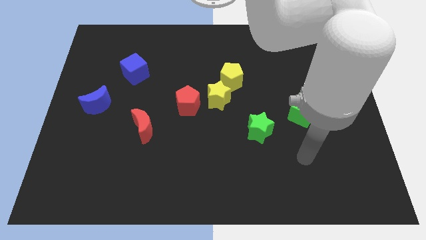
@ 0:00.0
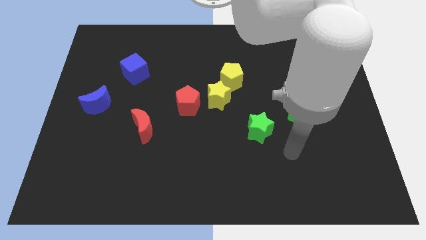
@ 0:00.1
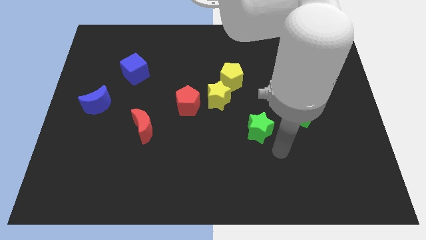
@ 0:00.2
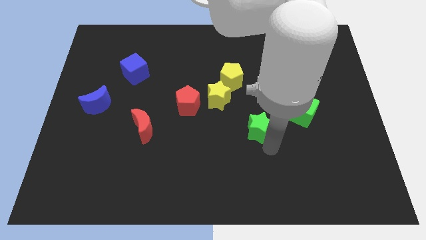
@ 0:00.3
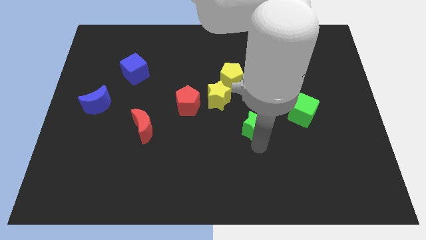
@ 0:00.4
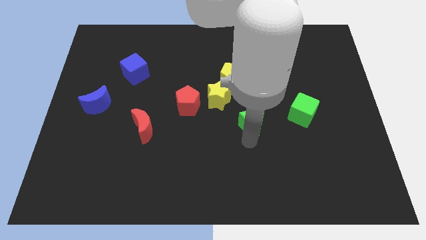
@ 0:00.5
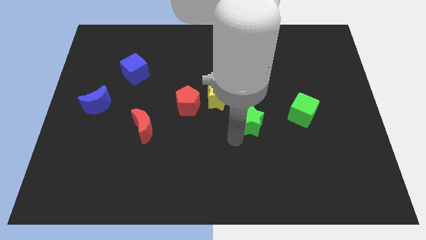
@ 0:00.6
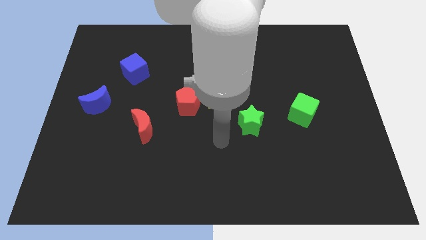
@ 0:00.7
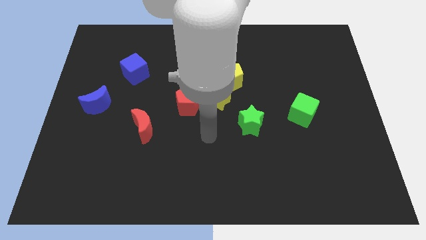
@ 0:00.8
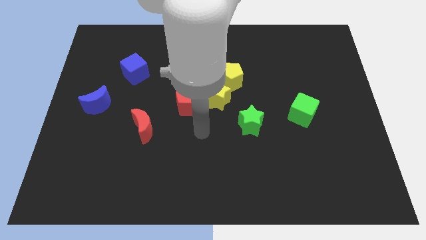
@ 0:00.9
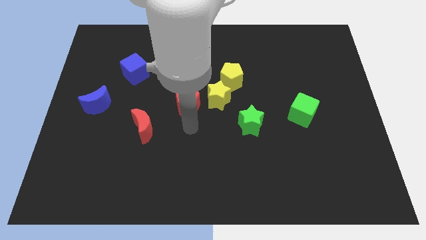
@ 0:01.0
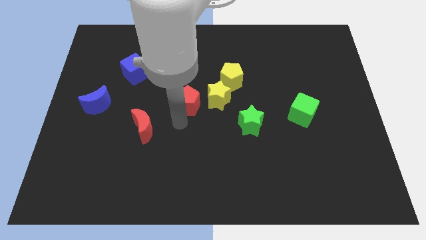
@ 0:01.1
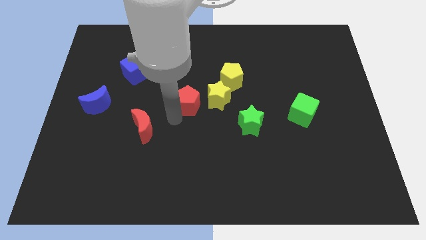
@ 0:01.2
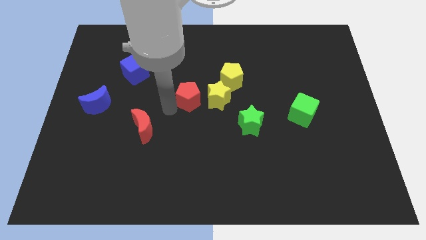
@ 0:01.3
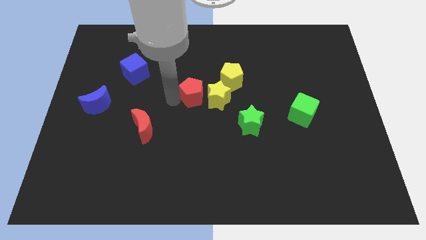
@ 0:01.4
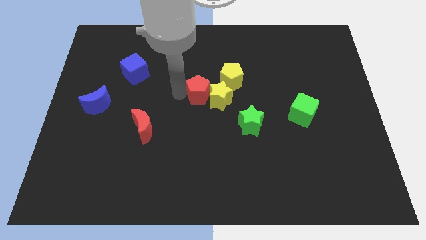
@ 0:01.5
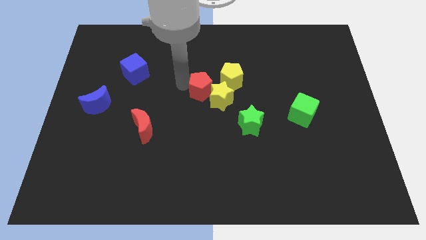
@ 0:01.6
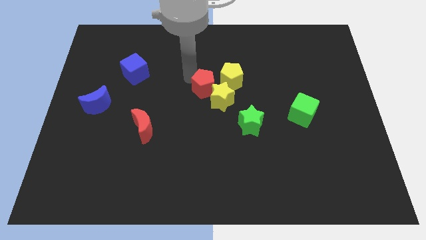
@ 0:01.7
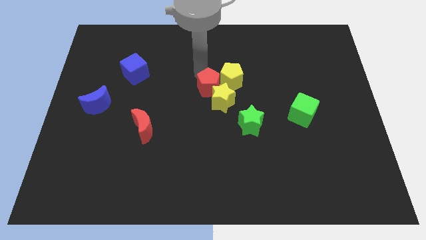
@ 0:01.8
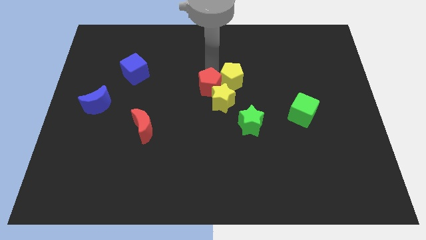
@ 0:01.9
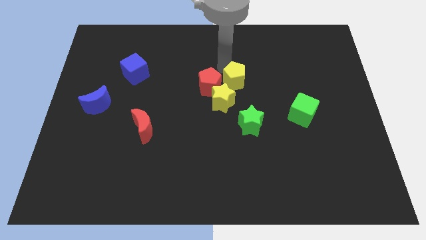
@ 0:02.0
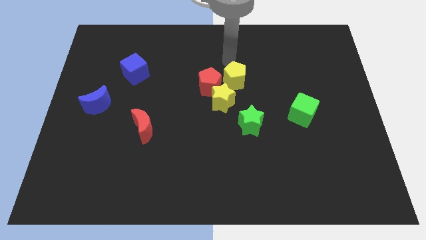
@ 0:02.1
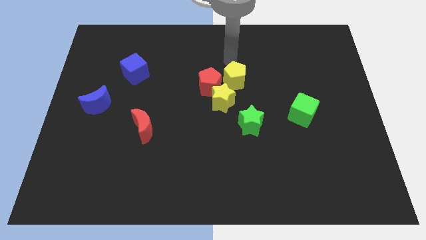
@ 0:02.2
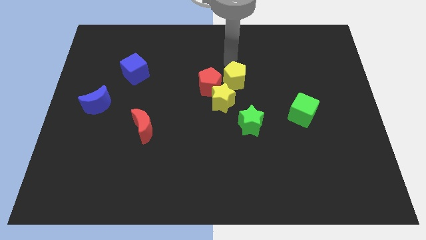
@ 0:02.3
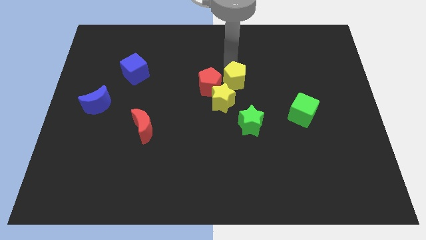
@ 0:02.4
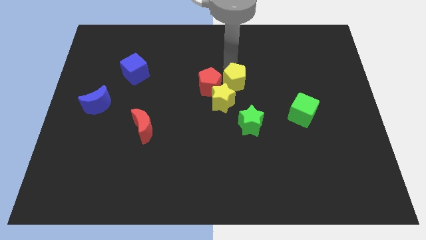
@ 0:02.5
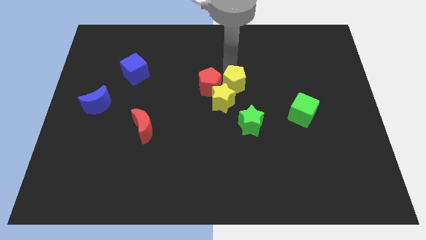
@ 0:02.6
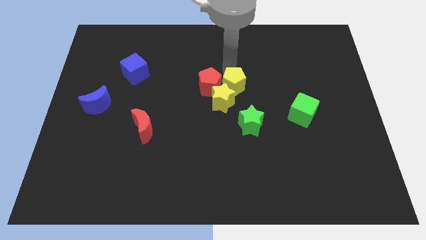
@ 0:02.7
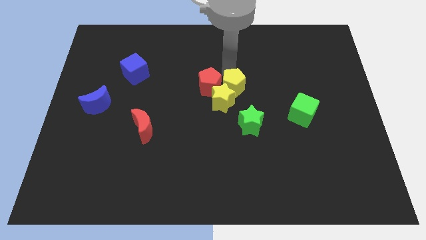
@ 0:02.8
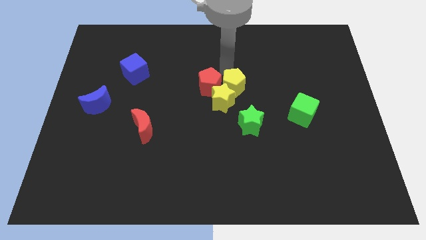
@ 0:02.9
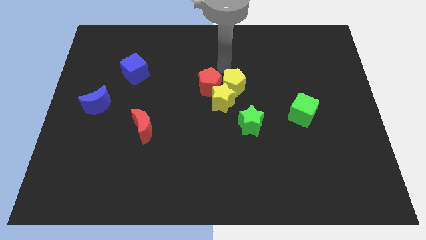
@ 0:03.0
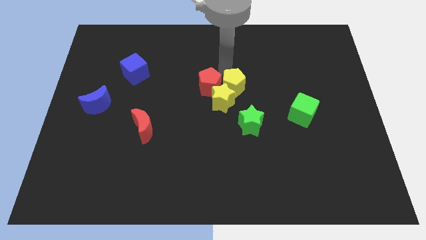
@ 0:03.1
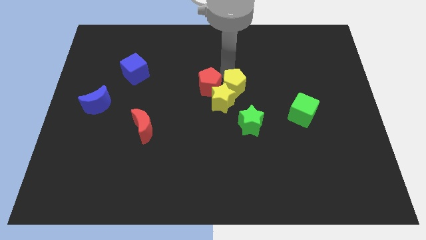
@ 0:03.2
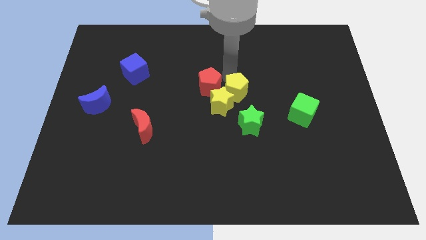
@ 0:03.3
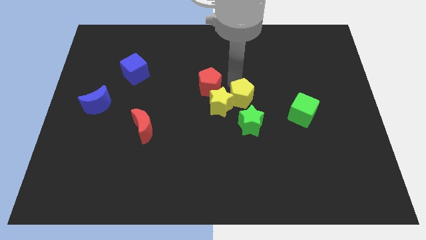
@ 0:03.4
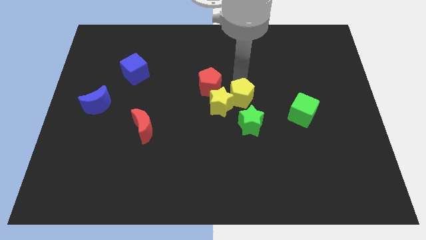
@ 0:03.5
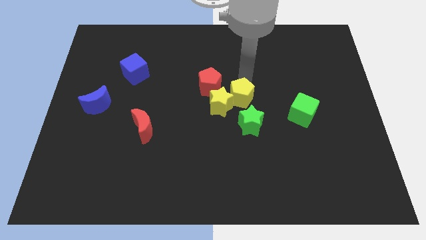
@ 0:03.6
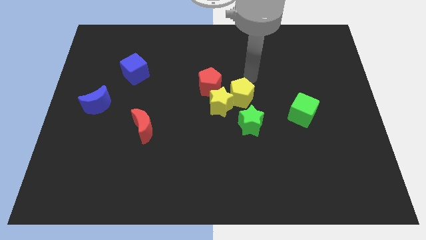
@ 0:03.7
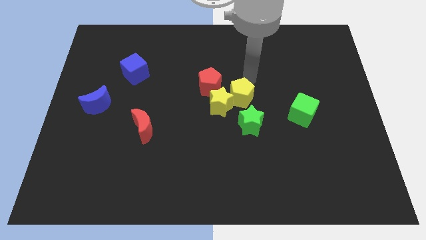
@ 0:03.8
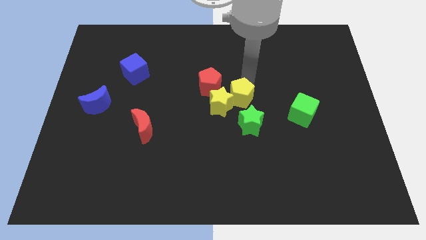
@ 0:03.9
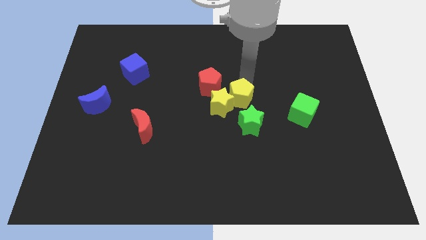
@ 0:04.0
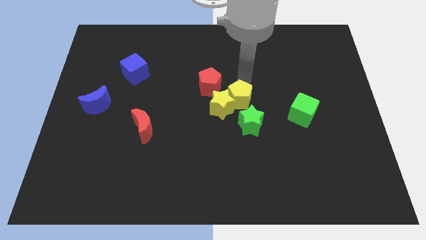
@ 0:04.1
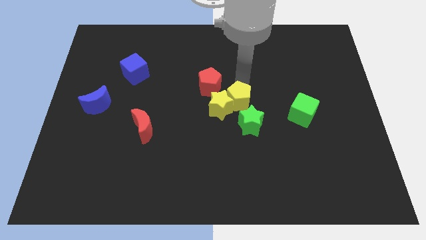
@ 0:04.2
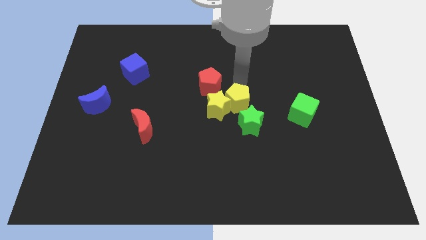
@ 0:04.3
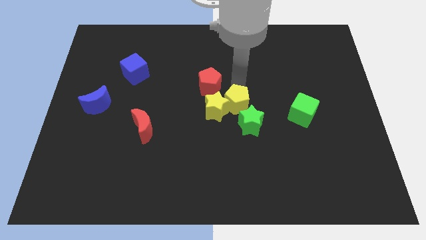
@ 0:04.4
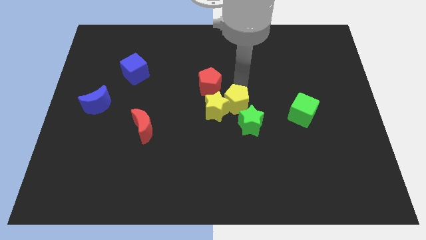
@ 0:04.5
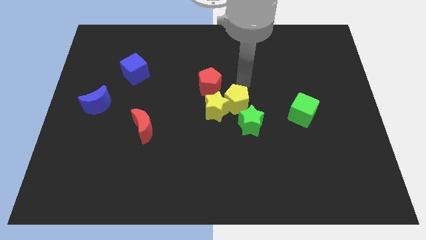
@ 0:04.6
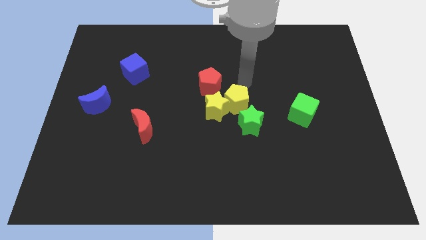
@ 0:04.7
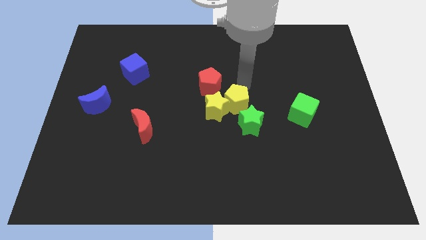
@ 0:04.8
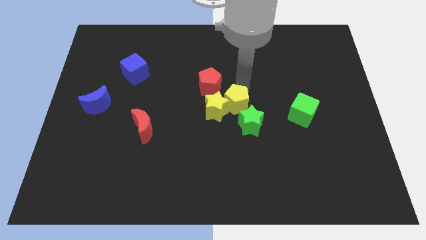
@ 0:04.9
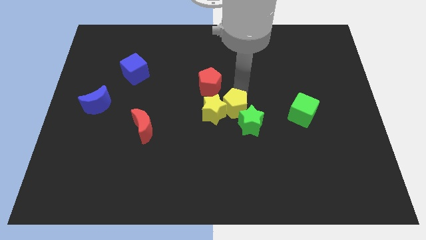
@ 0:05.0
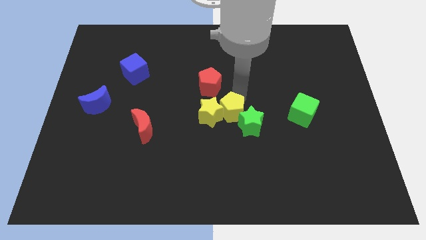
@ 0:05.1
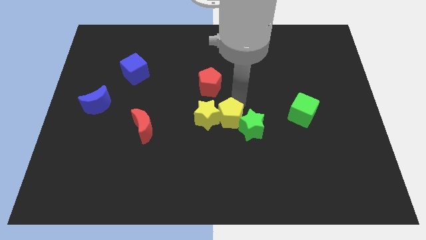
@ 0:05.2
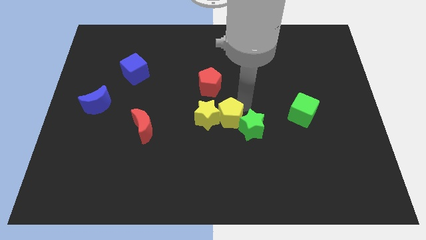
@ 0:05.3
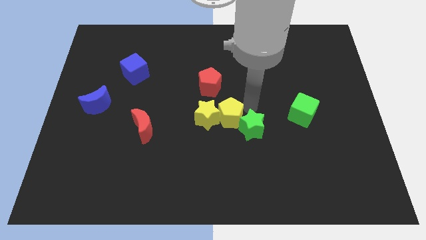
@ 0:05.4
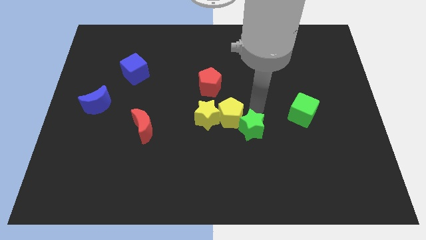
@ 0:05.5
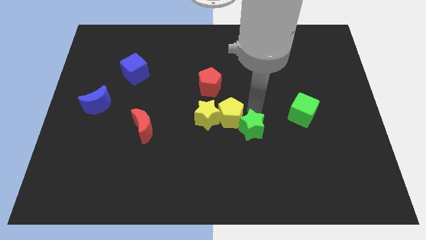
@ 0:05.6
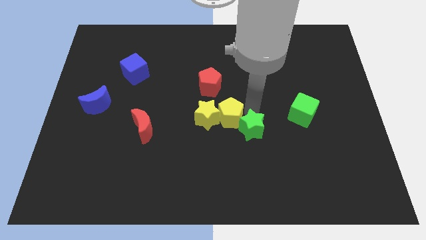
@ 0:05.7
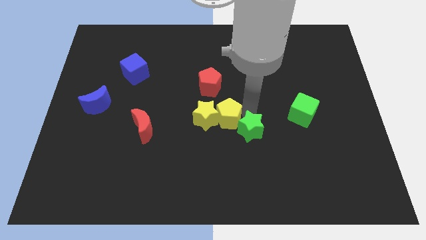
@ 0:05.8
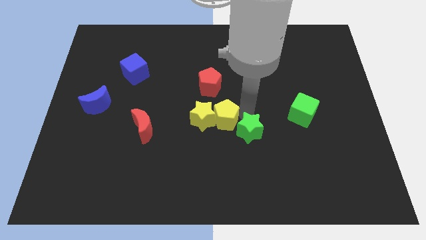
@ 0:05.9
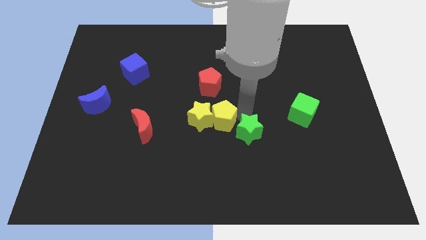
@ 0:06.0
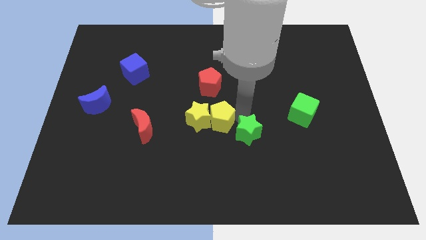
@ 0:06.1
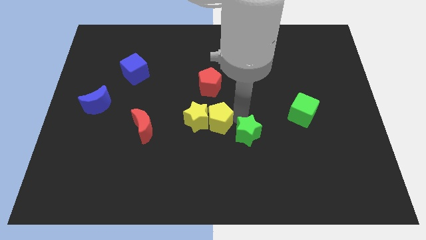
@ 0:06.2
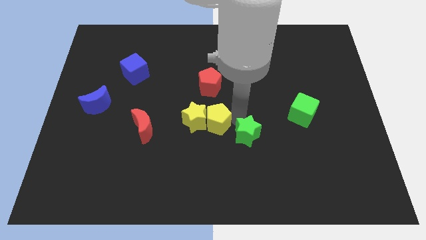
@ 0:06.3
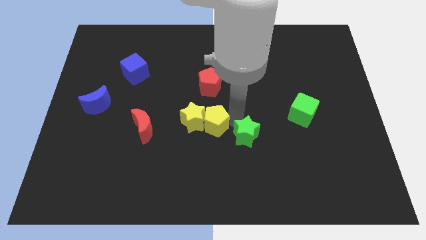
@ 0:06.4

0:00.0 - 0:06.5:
move the yellow pentagon to the right side of the red moon

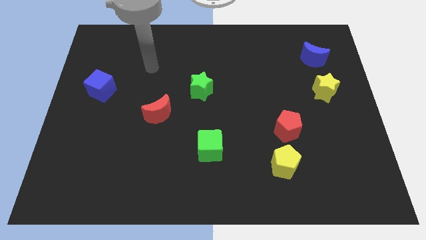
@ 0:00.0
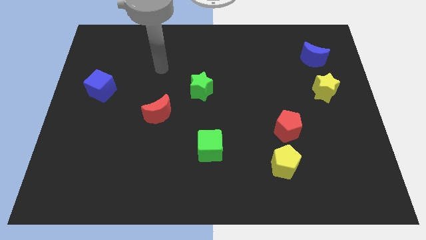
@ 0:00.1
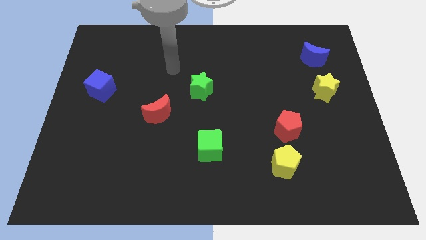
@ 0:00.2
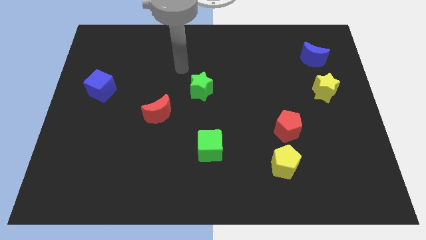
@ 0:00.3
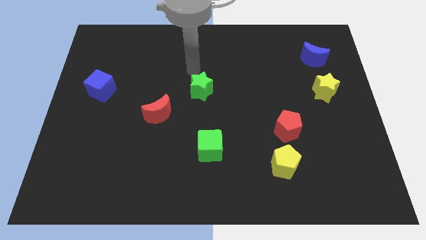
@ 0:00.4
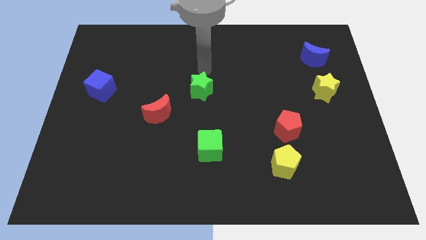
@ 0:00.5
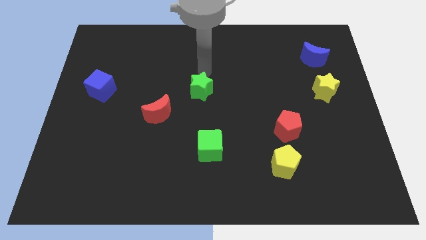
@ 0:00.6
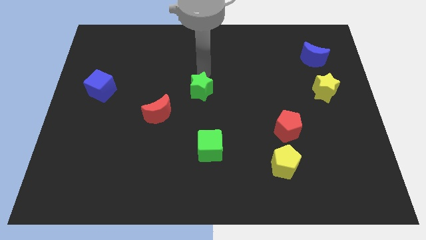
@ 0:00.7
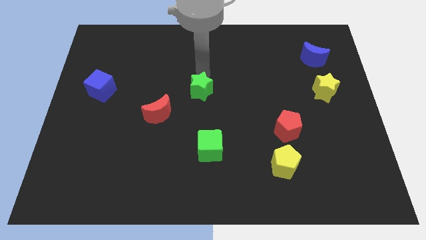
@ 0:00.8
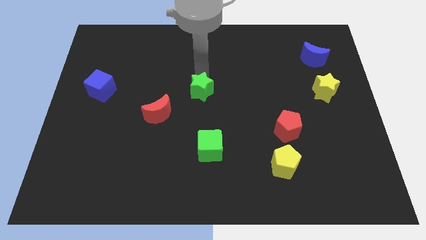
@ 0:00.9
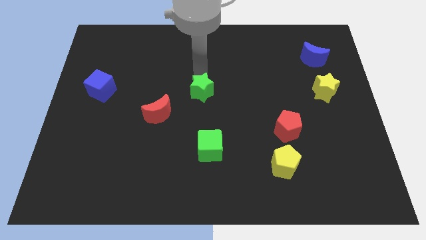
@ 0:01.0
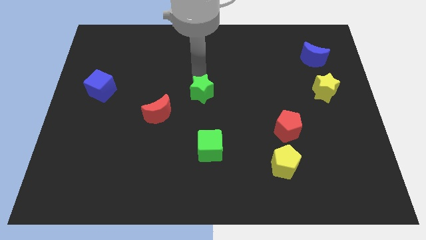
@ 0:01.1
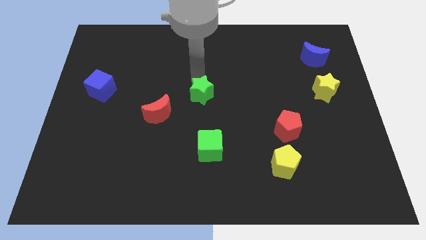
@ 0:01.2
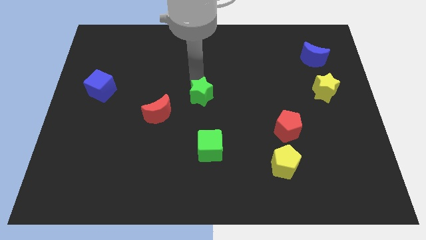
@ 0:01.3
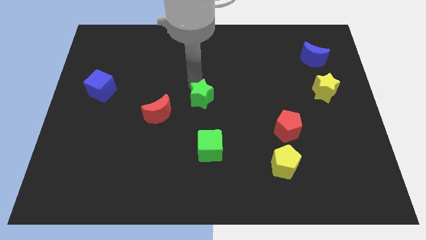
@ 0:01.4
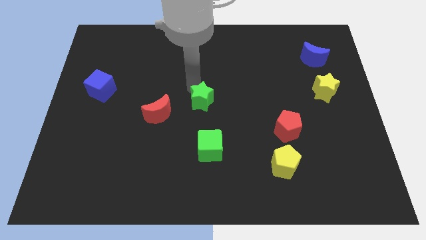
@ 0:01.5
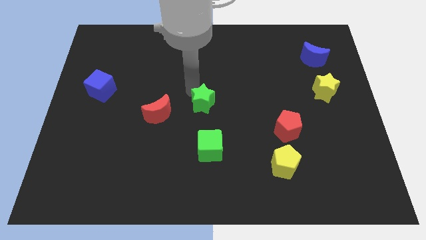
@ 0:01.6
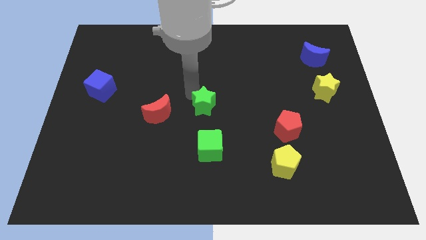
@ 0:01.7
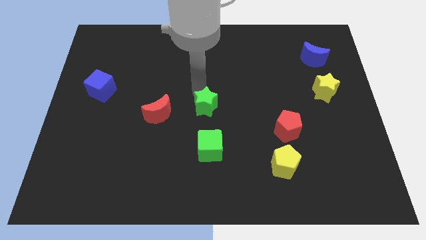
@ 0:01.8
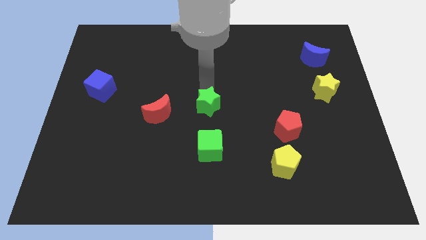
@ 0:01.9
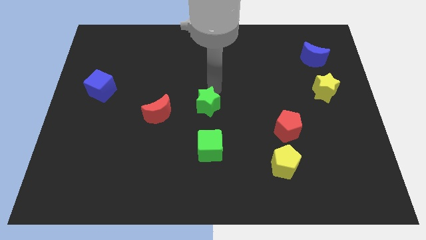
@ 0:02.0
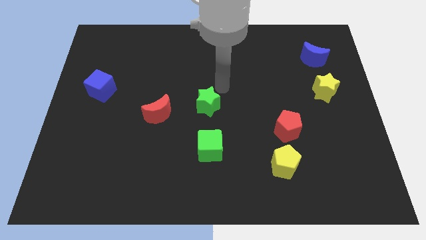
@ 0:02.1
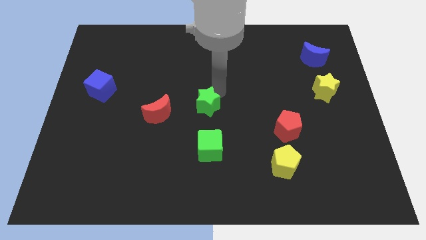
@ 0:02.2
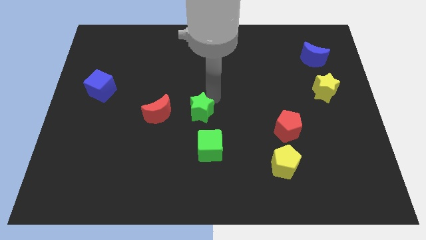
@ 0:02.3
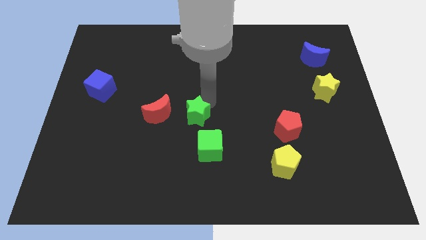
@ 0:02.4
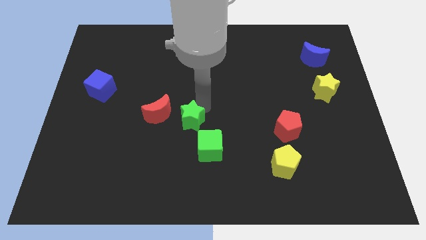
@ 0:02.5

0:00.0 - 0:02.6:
slide the green star to the bottom right of the red moon
